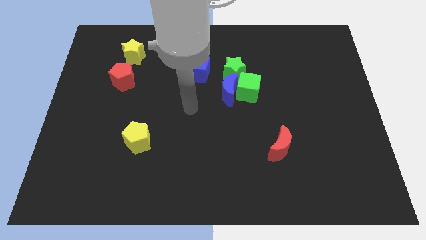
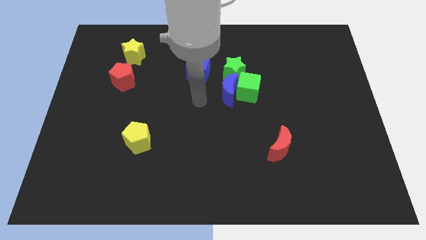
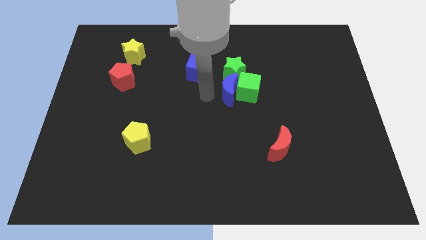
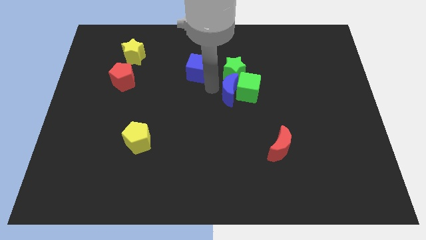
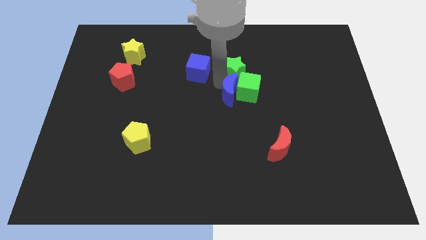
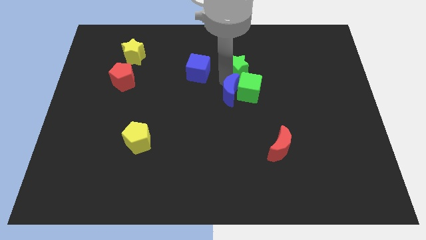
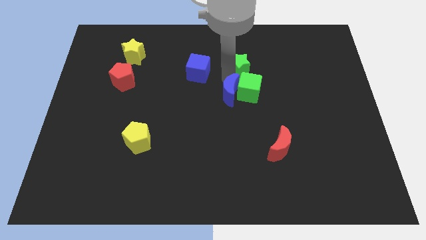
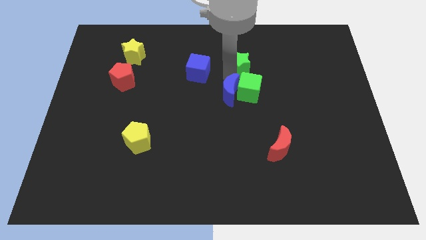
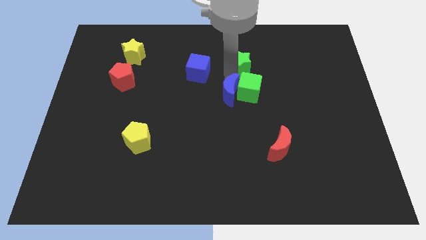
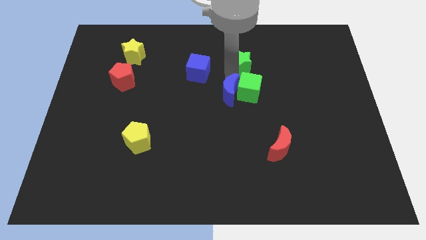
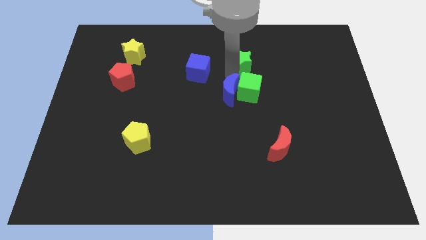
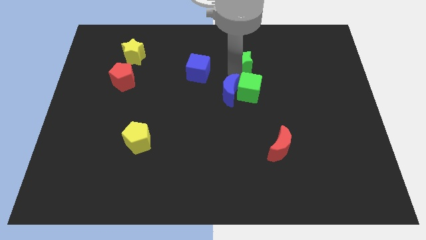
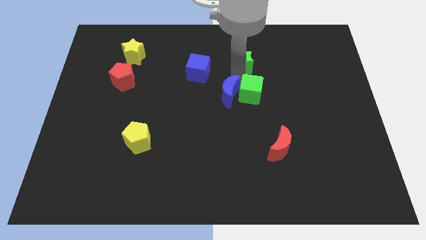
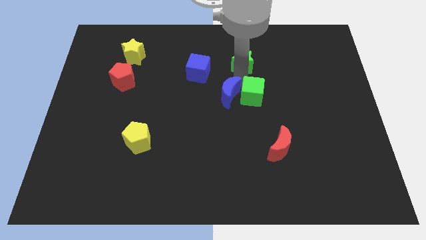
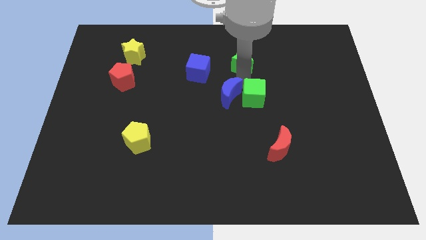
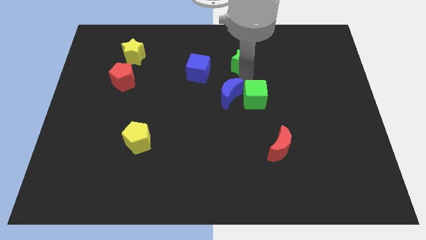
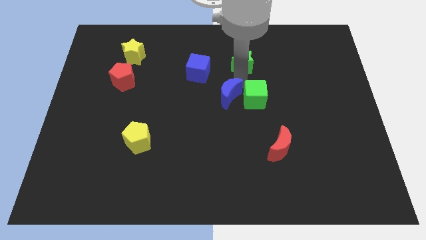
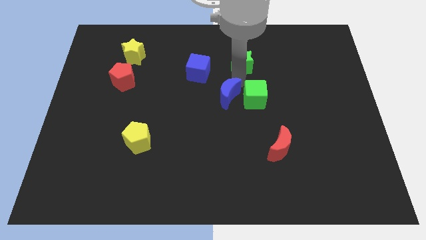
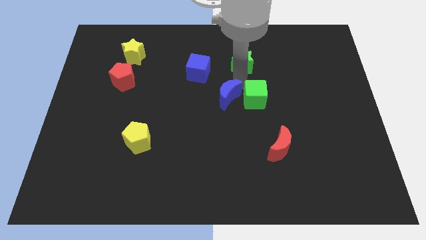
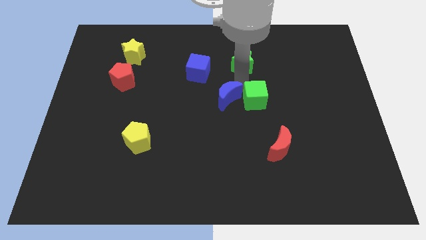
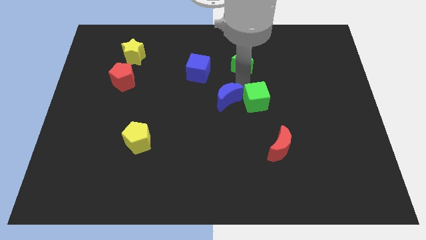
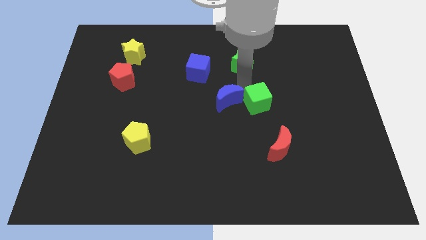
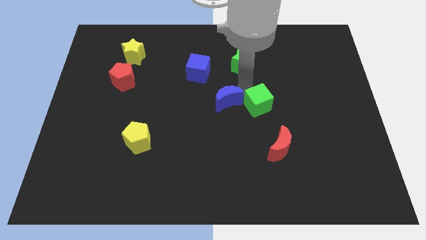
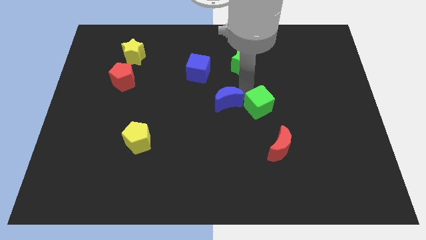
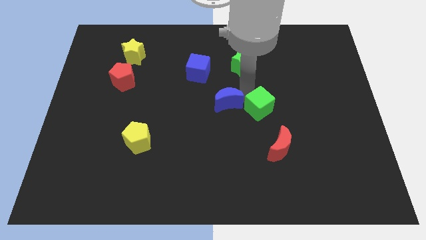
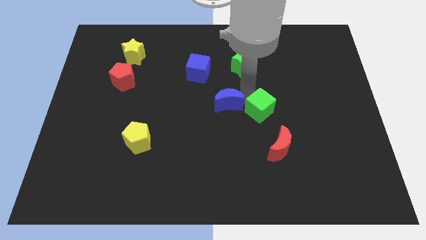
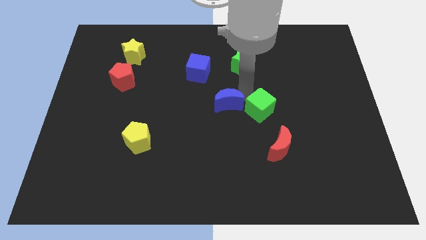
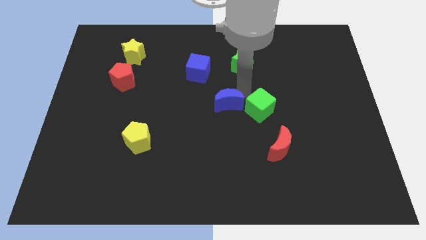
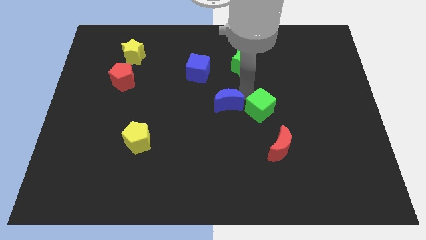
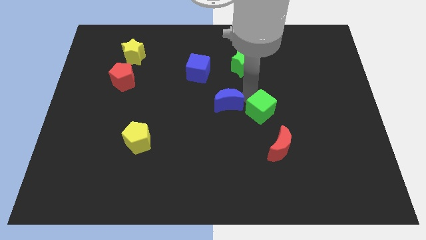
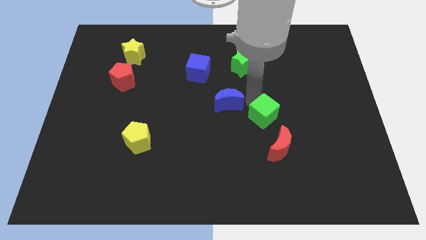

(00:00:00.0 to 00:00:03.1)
pull the green cube apart from the blue moon and green star

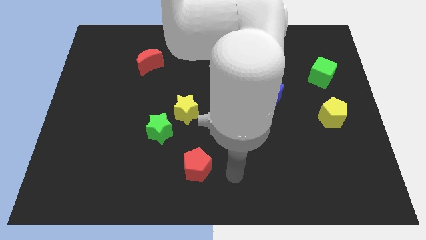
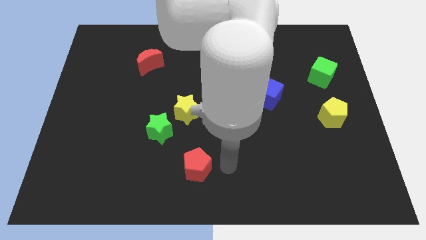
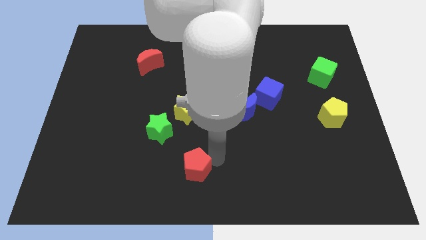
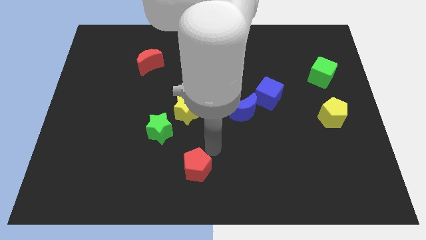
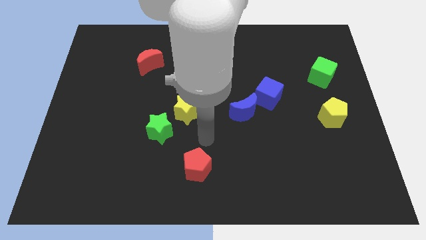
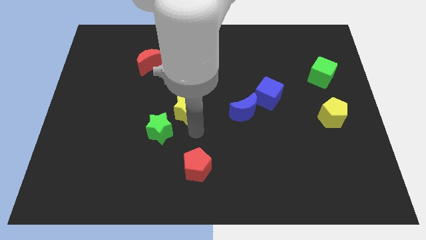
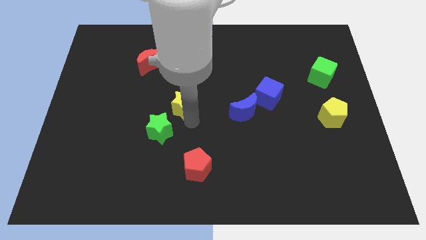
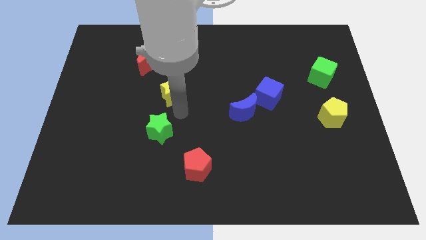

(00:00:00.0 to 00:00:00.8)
move the green star away from the yellow star

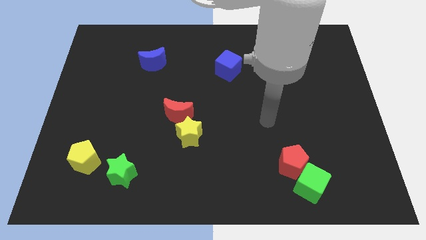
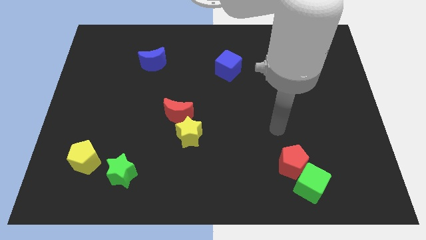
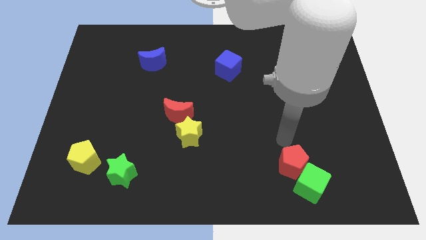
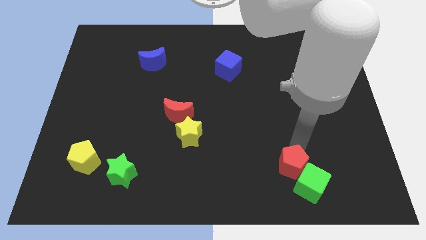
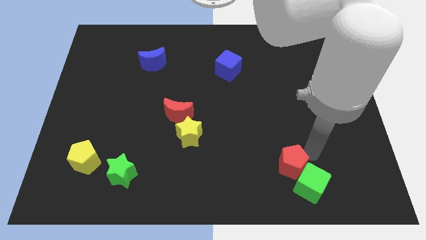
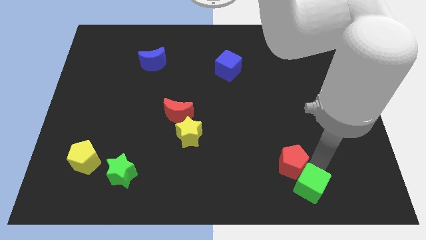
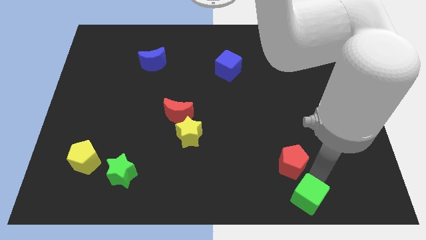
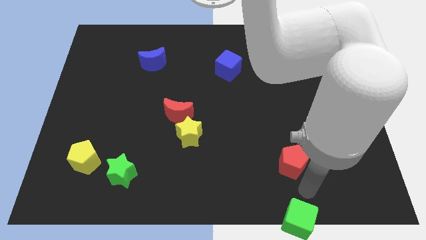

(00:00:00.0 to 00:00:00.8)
move the red pentagon away from the green cube

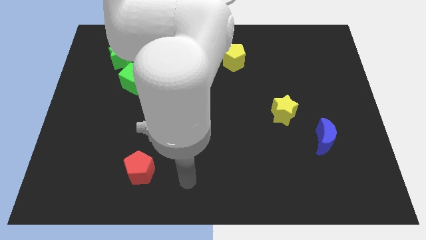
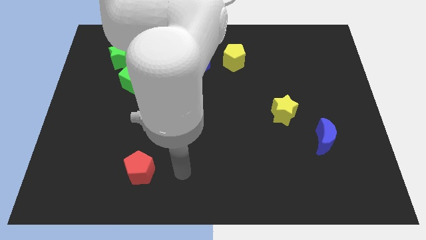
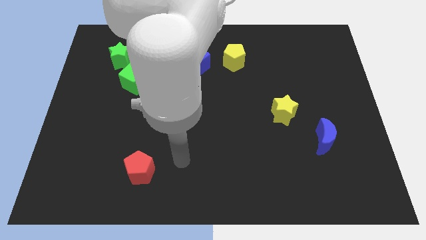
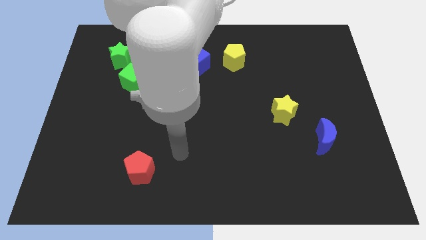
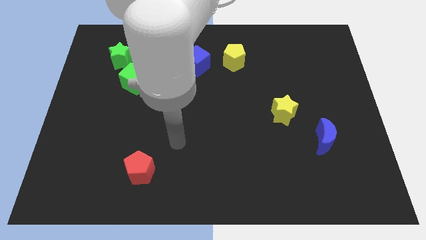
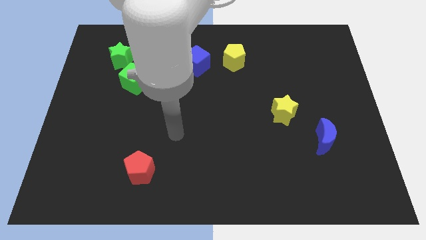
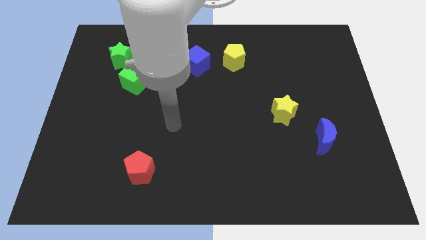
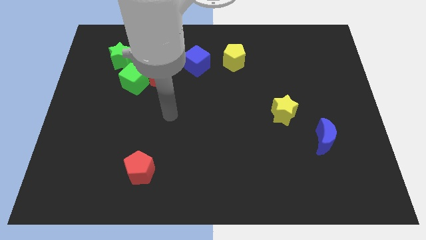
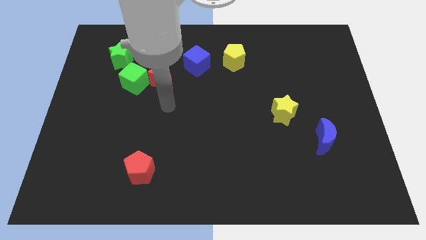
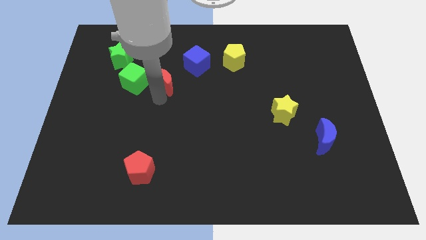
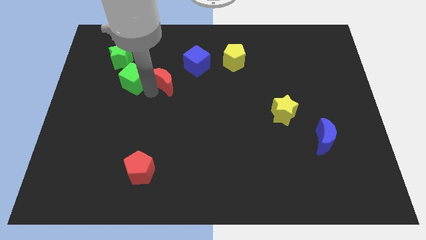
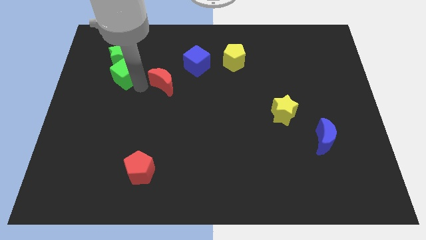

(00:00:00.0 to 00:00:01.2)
separate the red moon from the green cube

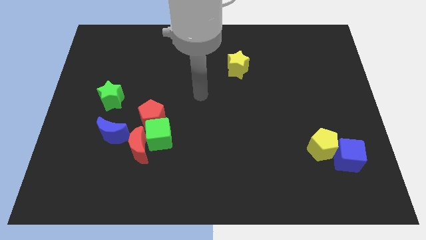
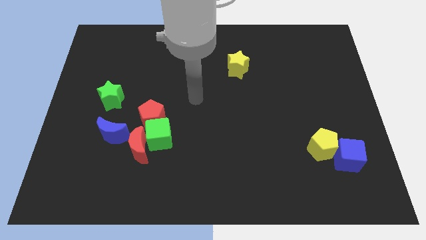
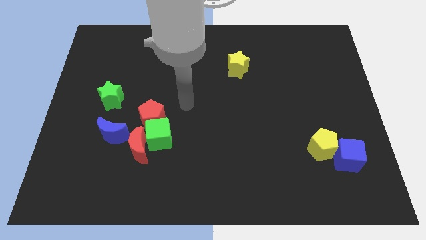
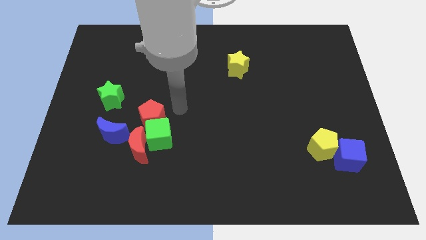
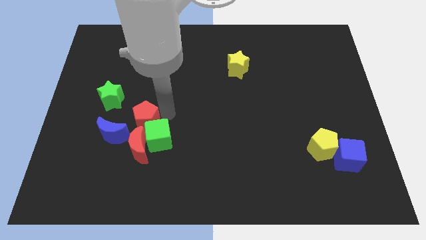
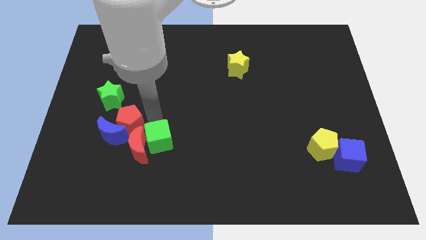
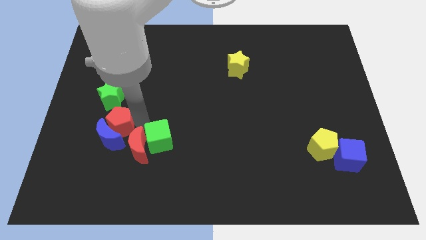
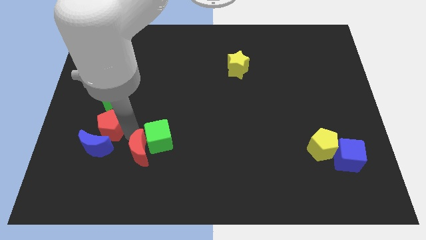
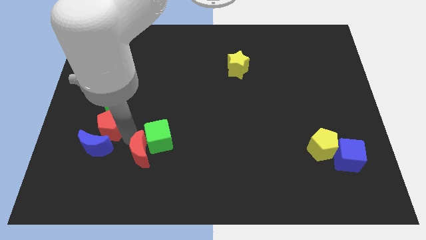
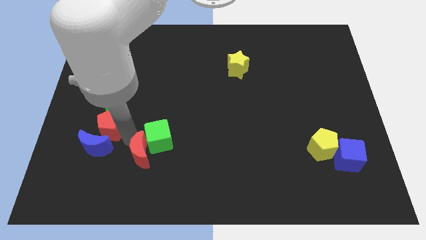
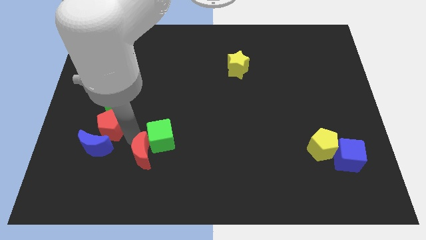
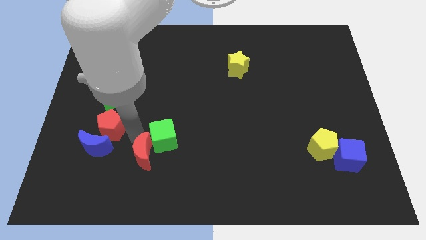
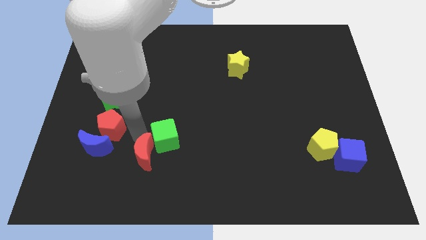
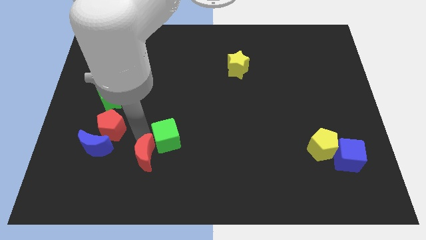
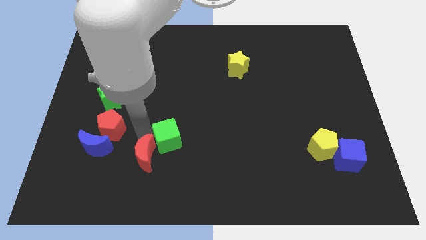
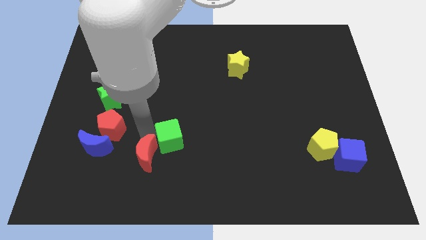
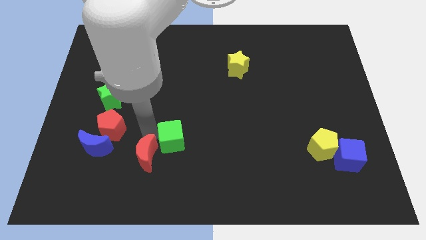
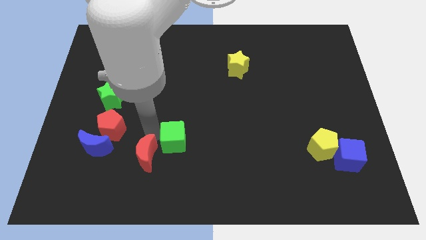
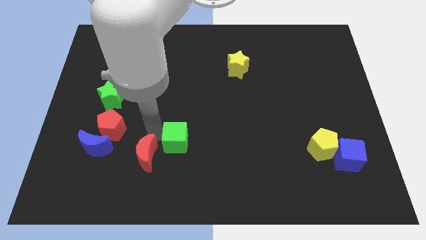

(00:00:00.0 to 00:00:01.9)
separate the green cube from the red moon and red pentagon

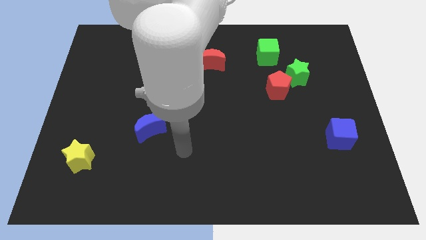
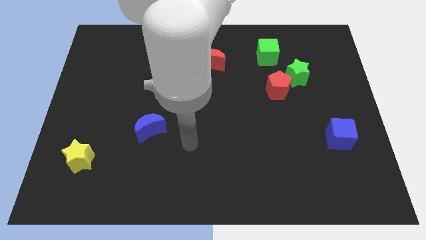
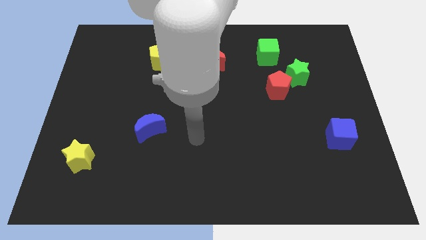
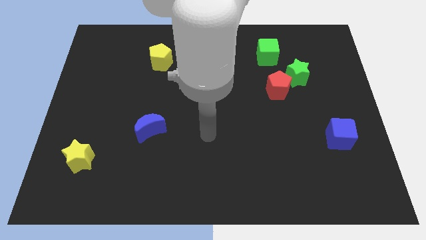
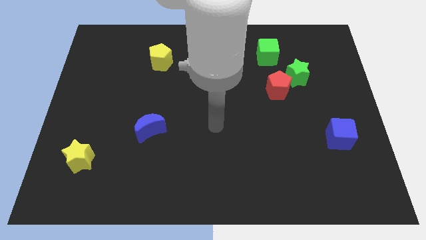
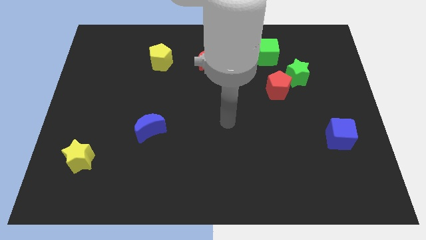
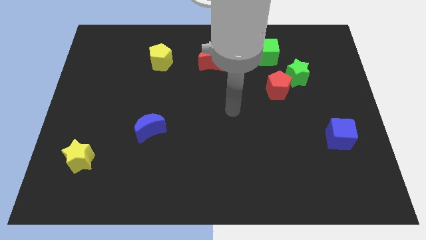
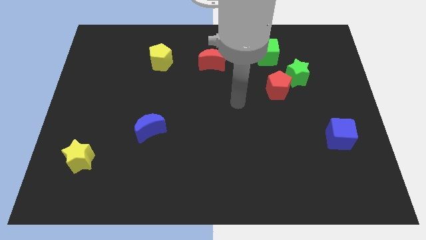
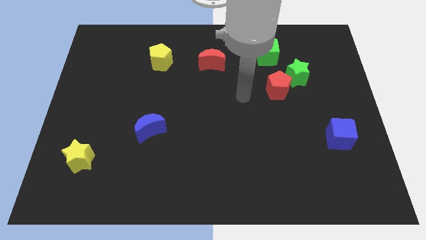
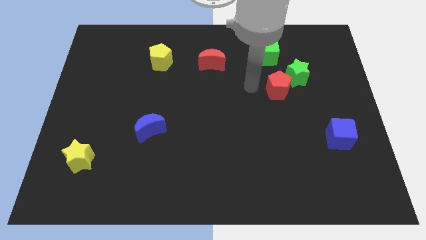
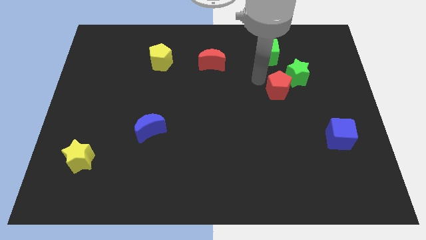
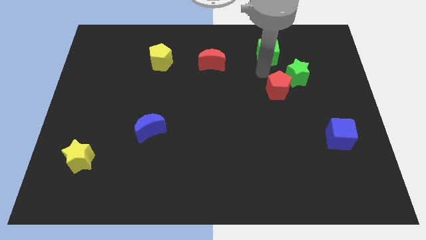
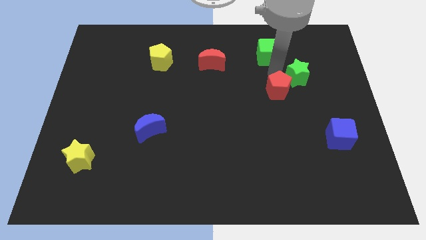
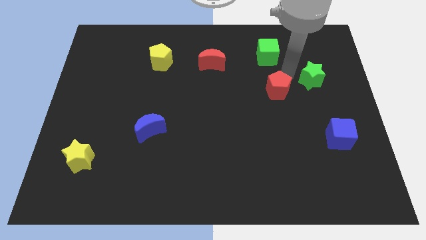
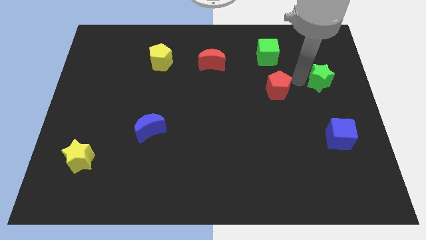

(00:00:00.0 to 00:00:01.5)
separate the red pentagon from the green star
